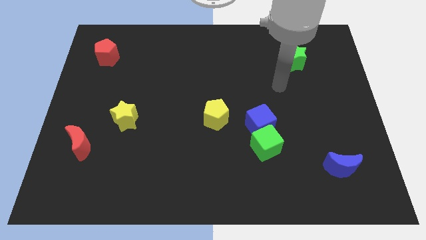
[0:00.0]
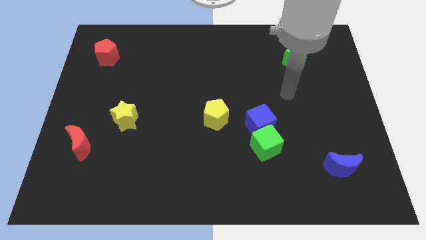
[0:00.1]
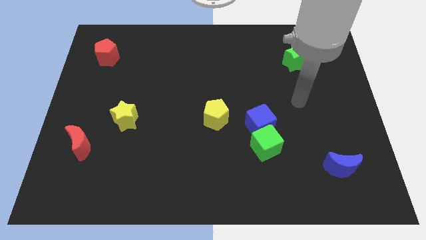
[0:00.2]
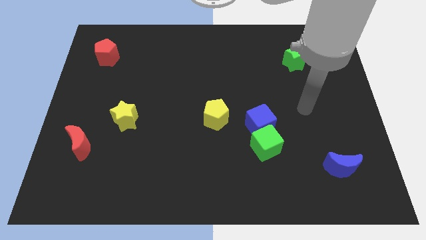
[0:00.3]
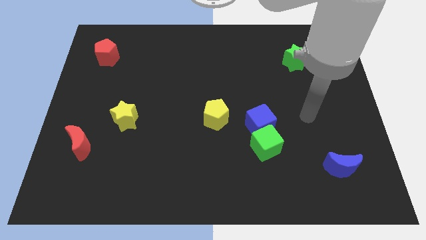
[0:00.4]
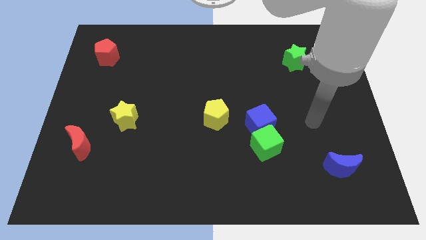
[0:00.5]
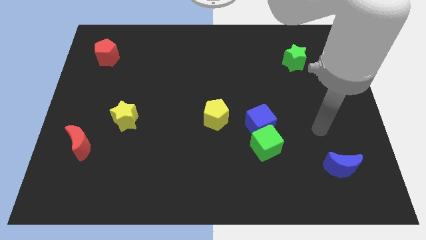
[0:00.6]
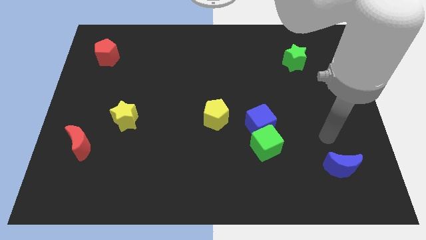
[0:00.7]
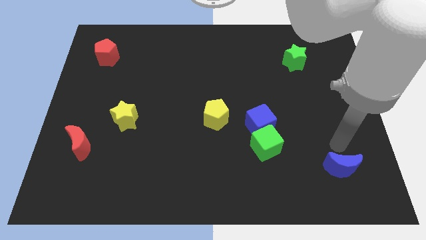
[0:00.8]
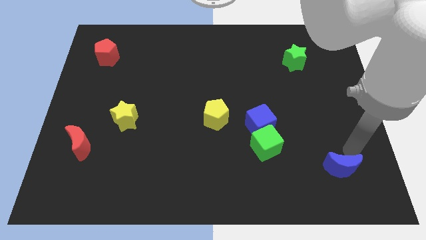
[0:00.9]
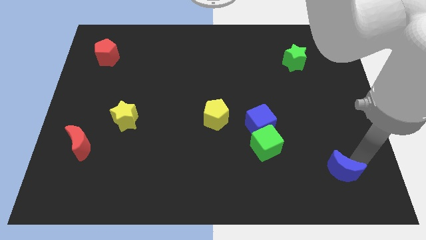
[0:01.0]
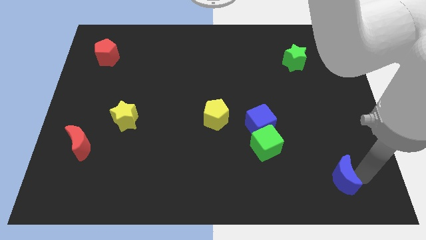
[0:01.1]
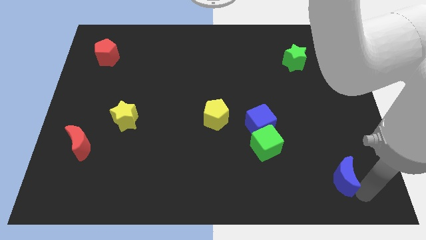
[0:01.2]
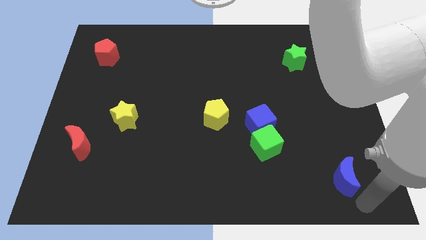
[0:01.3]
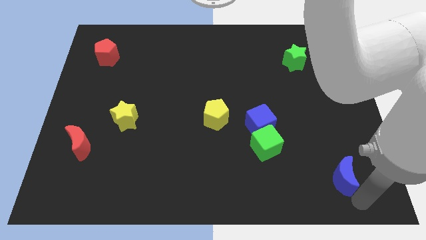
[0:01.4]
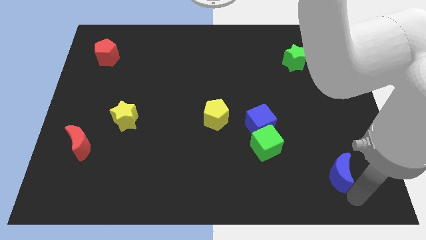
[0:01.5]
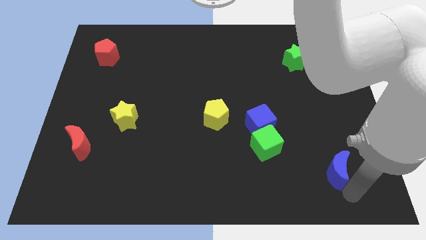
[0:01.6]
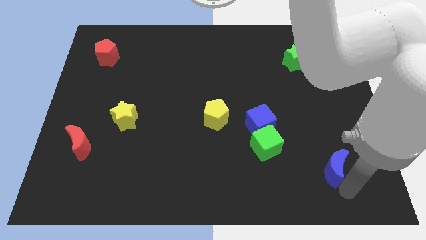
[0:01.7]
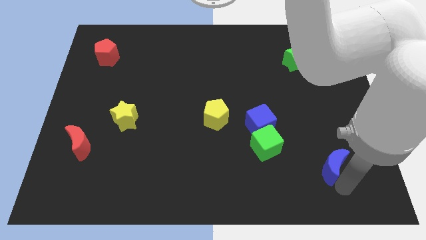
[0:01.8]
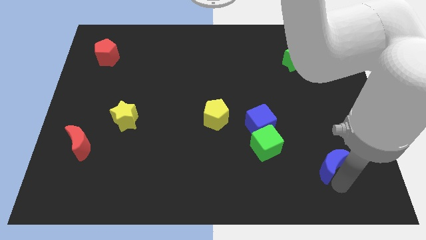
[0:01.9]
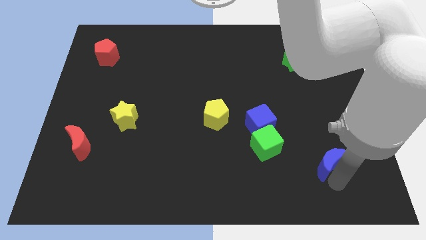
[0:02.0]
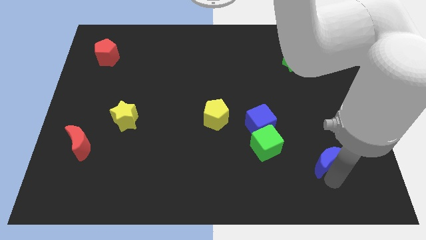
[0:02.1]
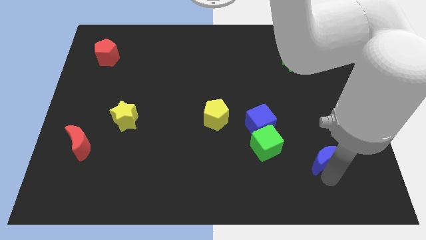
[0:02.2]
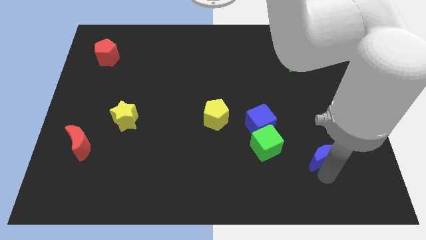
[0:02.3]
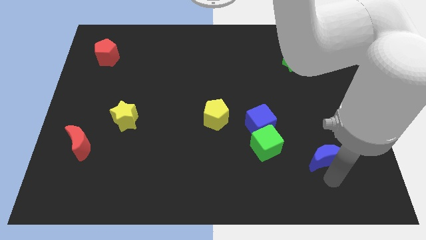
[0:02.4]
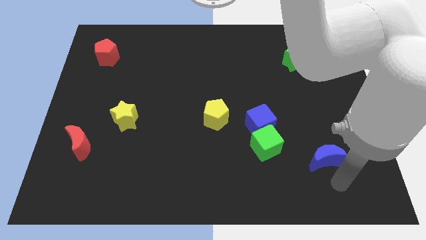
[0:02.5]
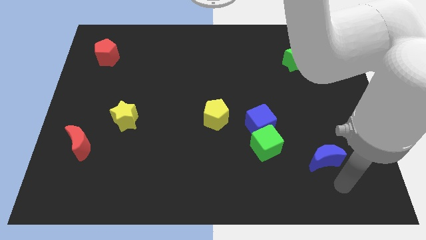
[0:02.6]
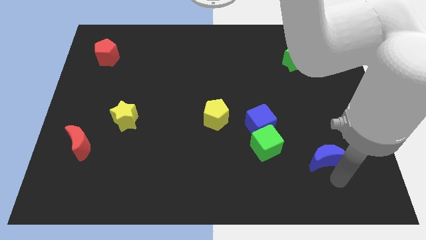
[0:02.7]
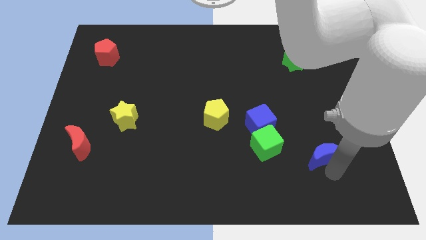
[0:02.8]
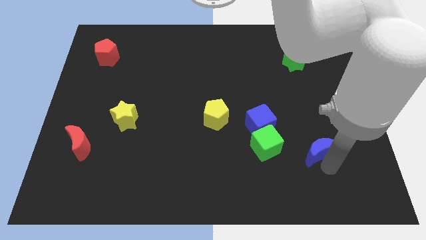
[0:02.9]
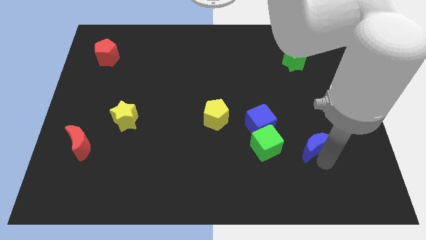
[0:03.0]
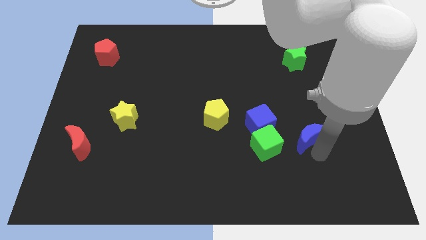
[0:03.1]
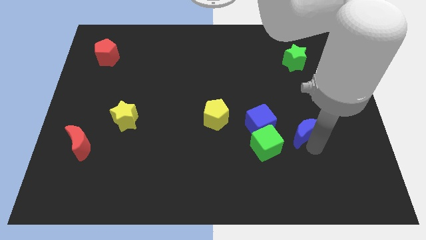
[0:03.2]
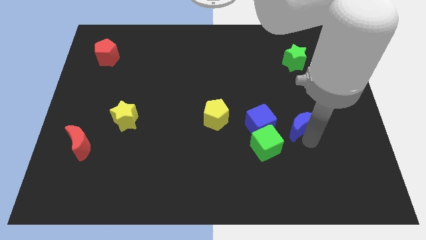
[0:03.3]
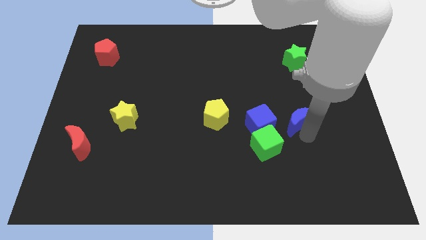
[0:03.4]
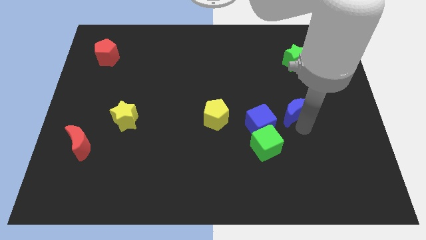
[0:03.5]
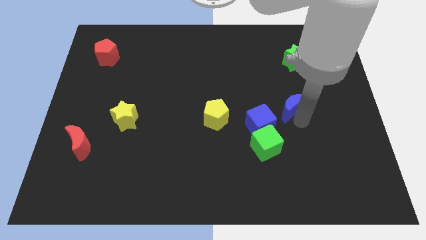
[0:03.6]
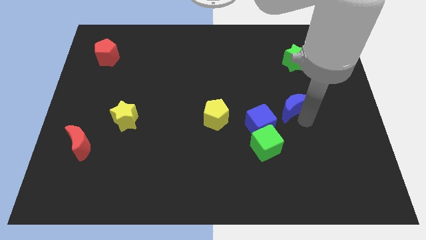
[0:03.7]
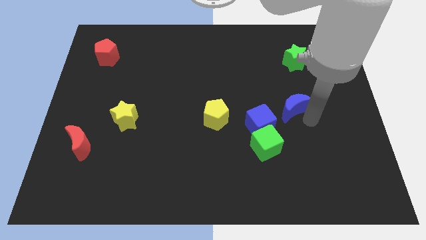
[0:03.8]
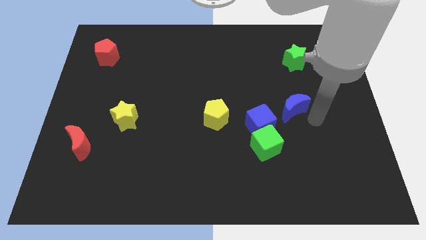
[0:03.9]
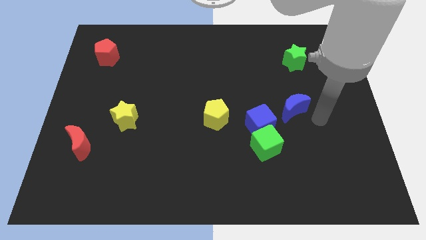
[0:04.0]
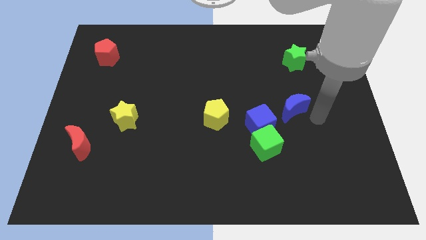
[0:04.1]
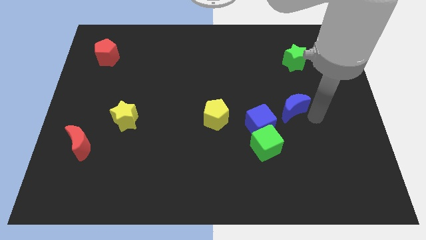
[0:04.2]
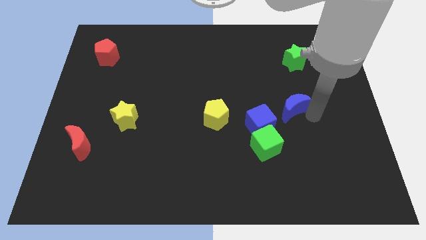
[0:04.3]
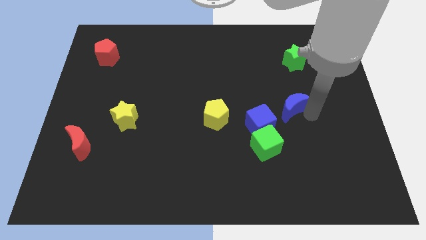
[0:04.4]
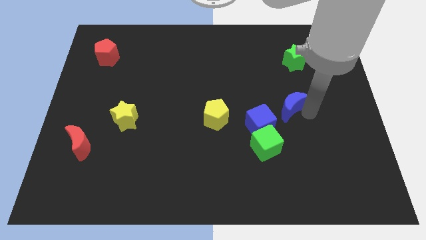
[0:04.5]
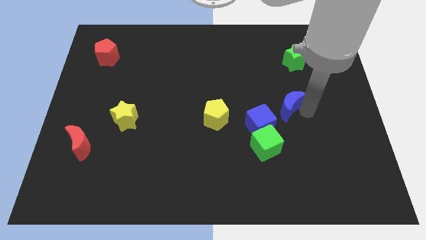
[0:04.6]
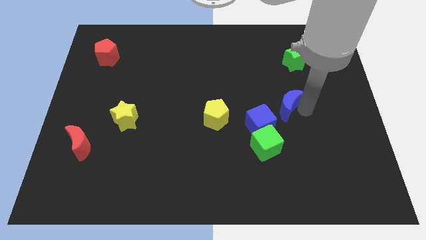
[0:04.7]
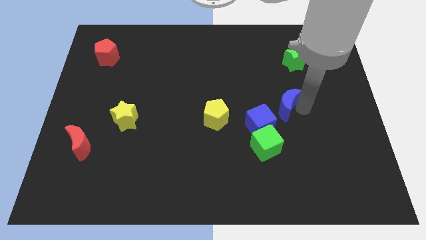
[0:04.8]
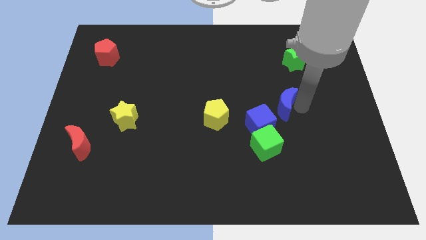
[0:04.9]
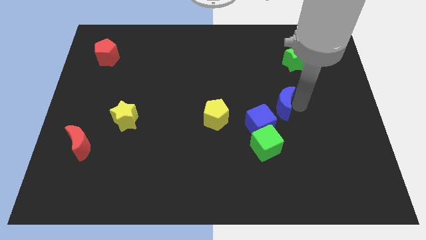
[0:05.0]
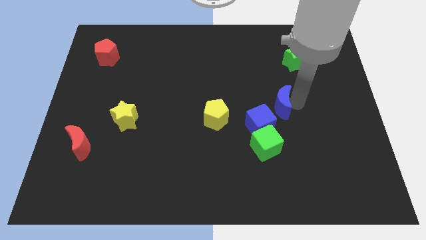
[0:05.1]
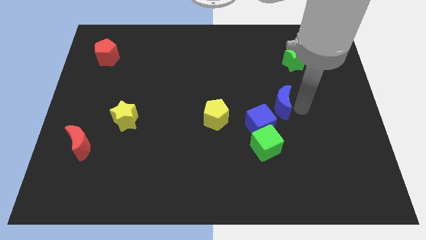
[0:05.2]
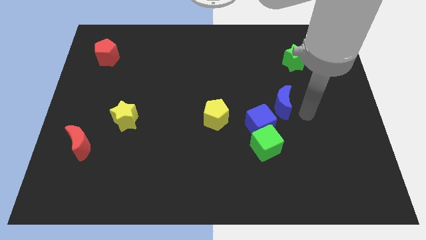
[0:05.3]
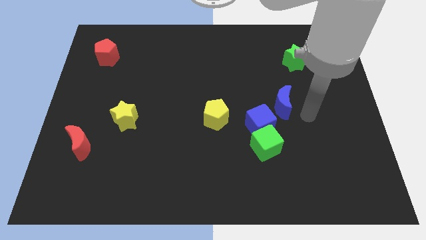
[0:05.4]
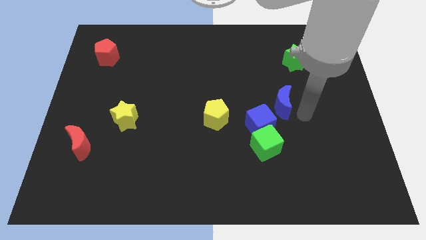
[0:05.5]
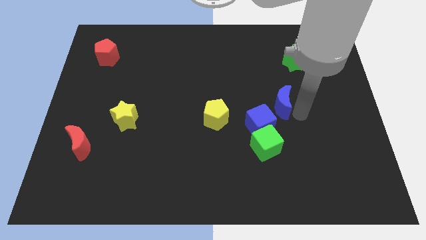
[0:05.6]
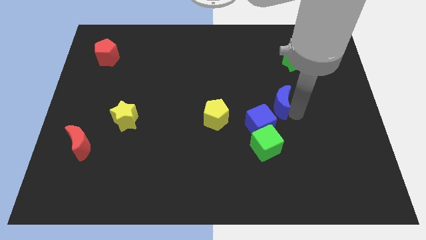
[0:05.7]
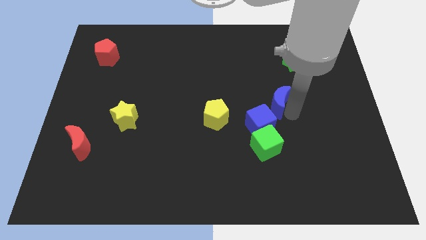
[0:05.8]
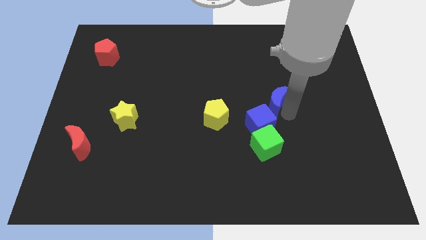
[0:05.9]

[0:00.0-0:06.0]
push the blue moon up and then to the left

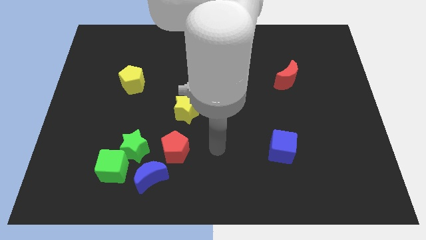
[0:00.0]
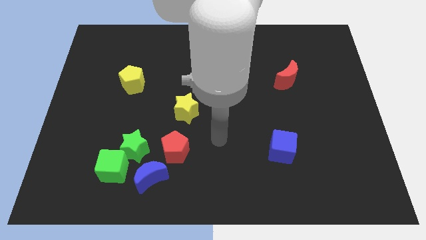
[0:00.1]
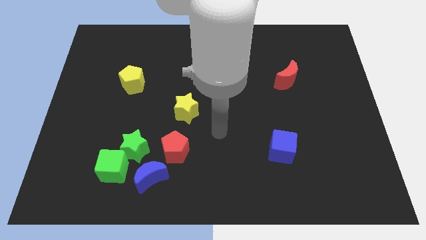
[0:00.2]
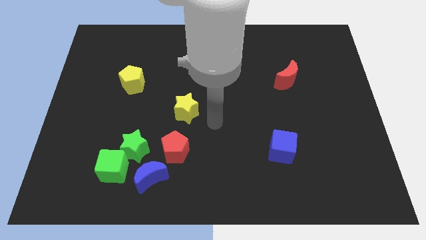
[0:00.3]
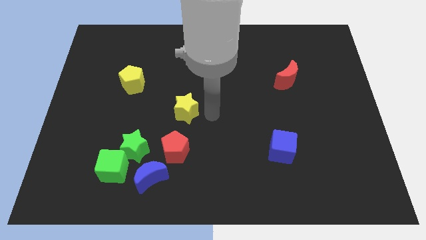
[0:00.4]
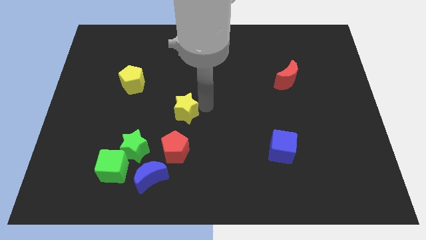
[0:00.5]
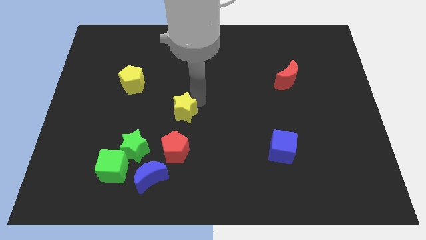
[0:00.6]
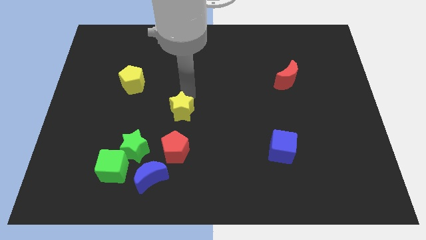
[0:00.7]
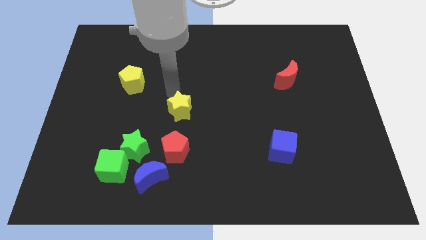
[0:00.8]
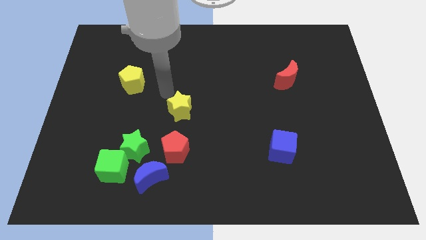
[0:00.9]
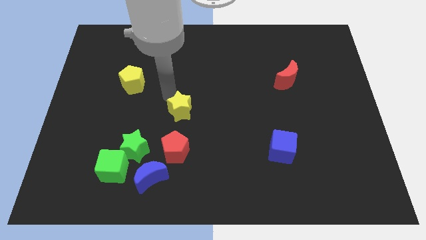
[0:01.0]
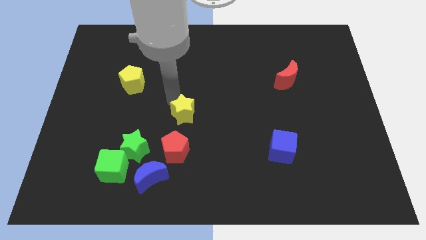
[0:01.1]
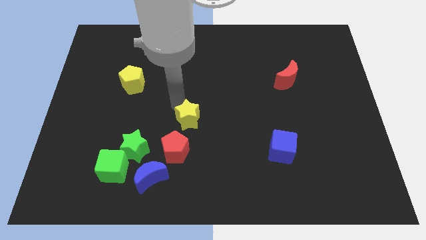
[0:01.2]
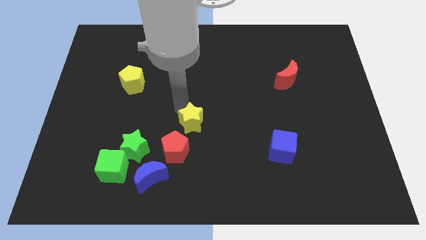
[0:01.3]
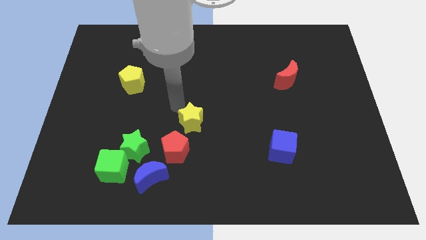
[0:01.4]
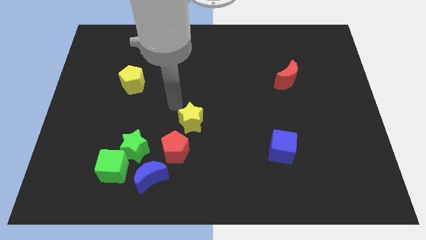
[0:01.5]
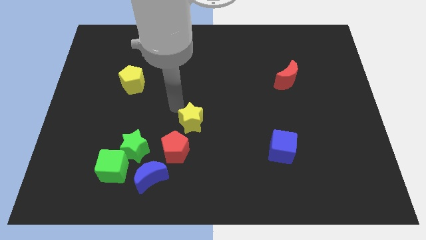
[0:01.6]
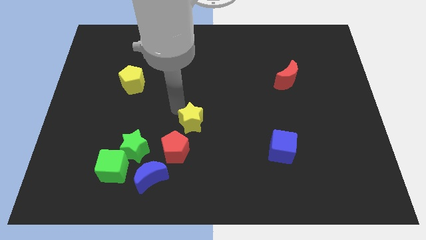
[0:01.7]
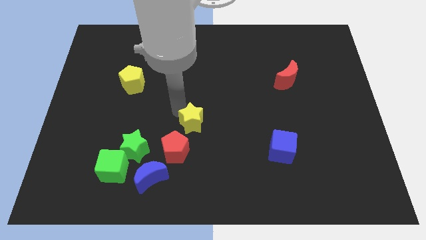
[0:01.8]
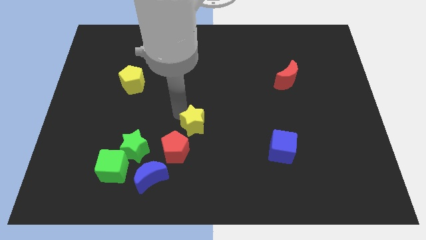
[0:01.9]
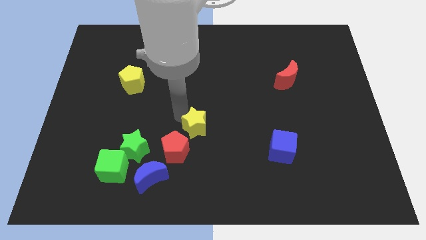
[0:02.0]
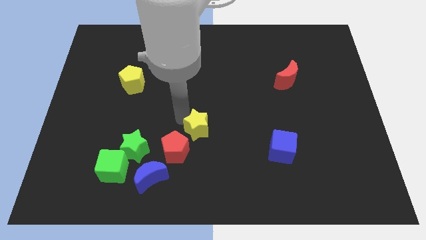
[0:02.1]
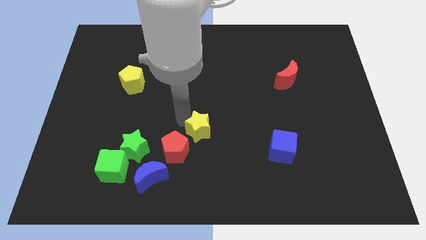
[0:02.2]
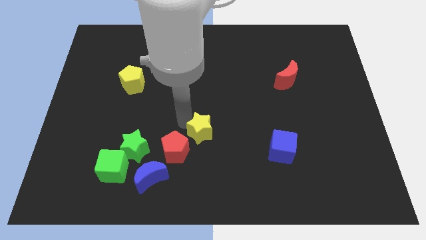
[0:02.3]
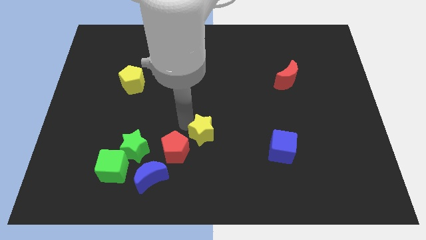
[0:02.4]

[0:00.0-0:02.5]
slightly push the yellow star diagonally downwards and to the right
